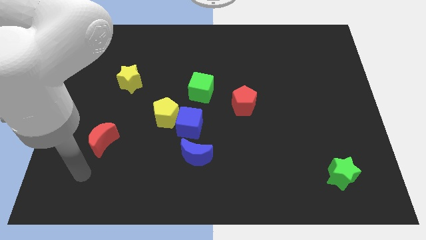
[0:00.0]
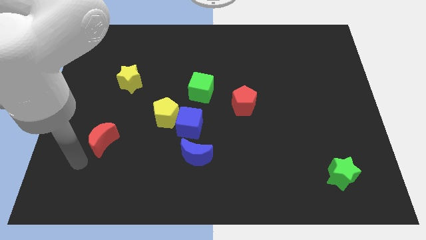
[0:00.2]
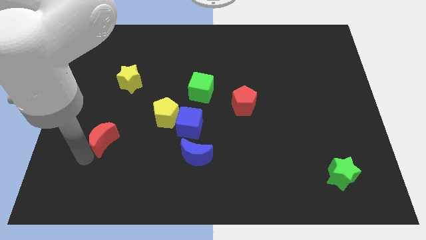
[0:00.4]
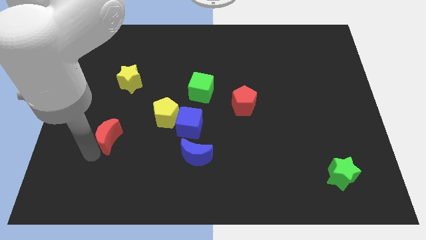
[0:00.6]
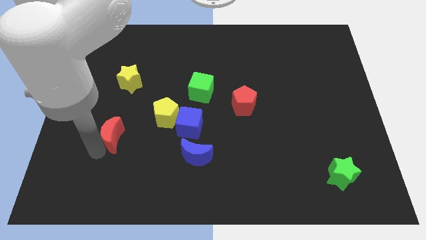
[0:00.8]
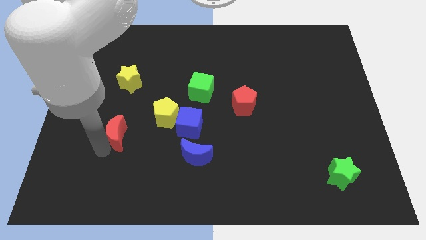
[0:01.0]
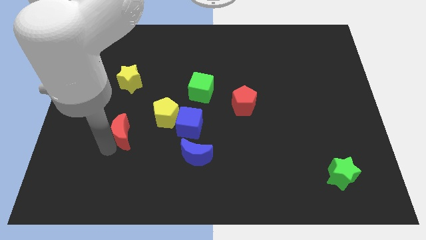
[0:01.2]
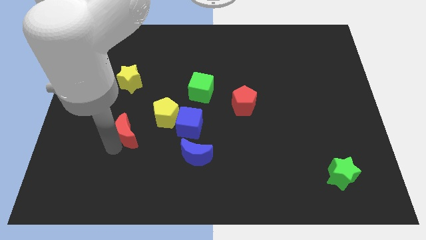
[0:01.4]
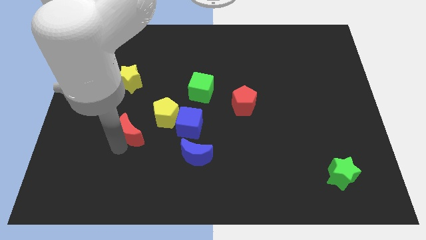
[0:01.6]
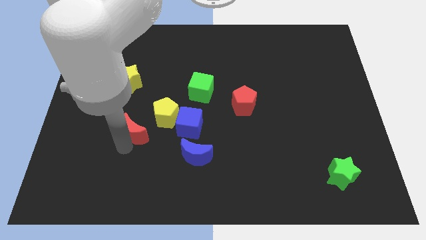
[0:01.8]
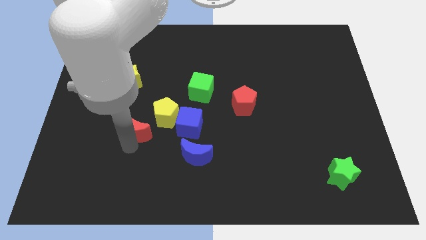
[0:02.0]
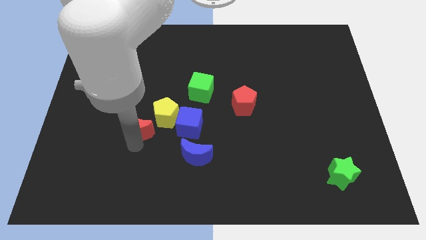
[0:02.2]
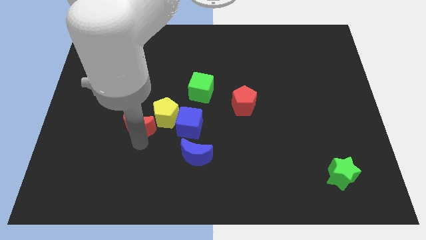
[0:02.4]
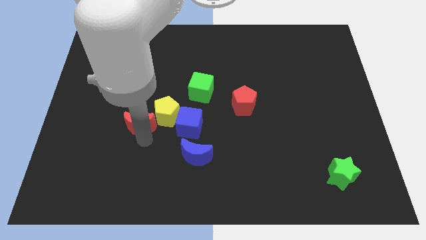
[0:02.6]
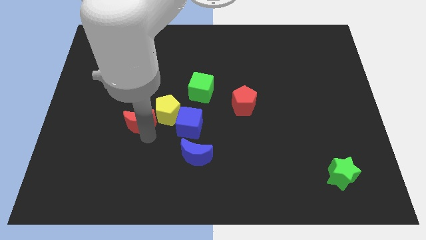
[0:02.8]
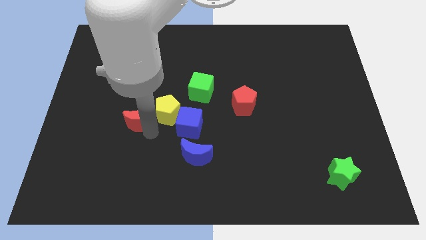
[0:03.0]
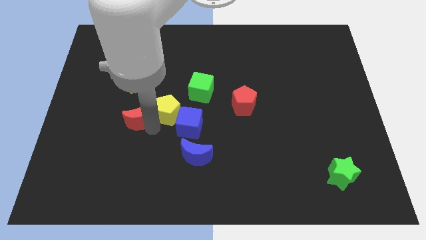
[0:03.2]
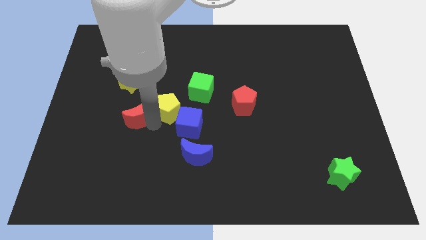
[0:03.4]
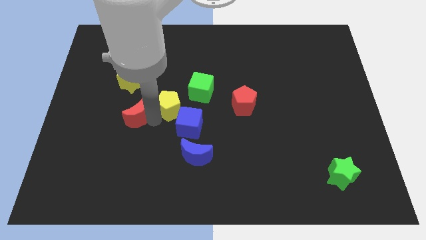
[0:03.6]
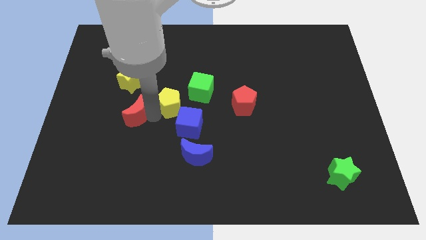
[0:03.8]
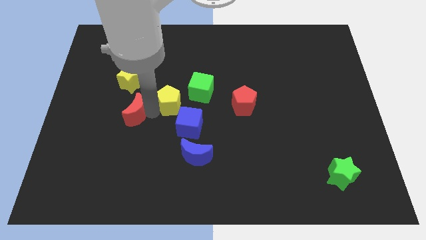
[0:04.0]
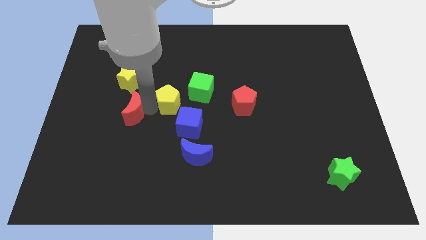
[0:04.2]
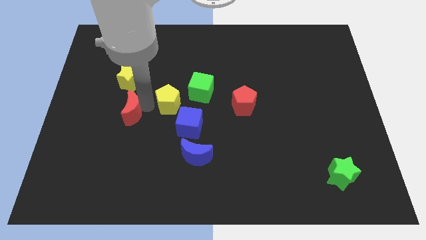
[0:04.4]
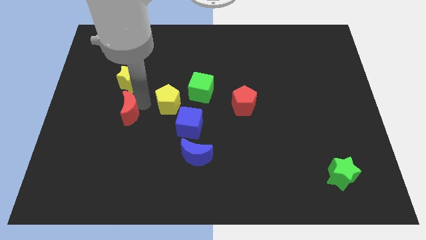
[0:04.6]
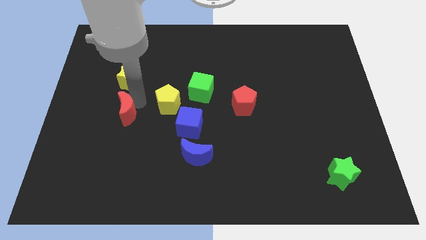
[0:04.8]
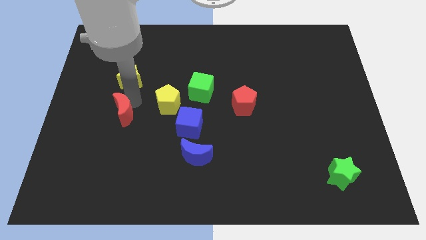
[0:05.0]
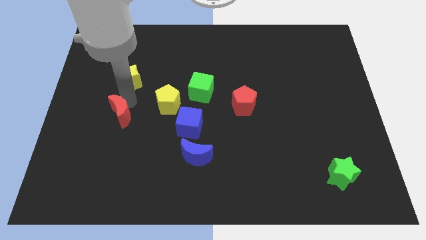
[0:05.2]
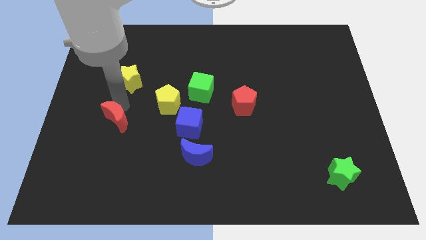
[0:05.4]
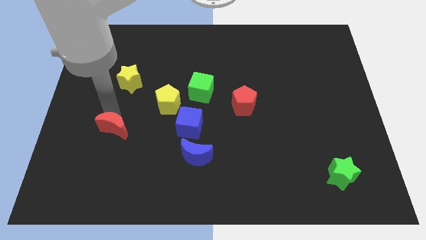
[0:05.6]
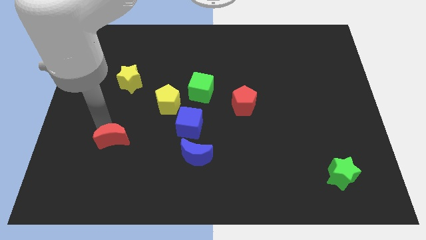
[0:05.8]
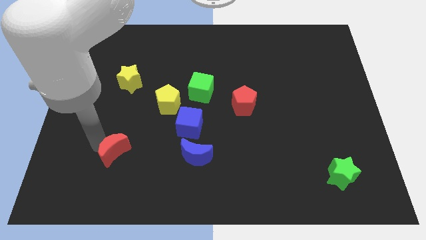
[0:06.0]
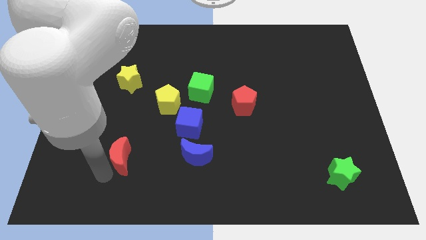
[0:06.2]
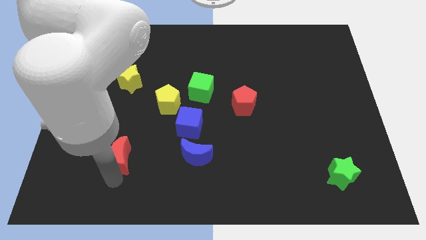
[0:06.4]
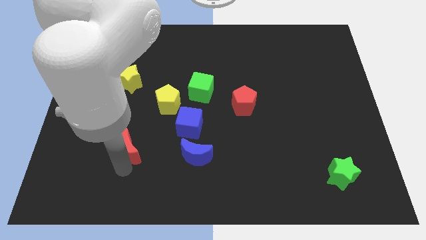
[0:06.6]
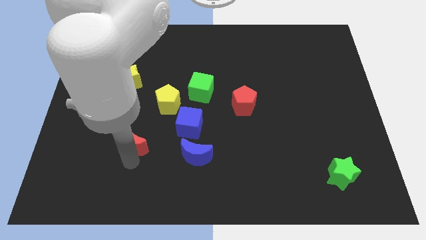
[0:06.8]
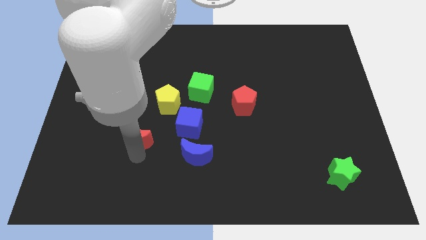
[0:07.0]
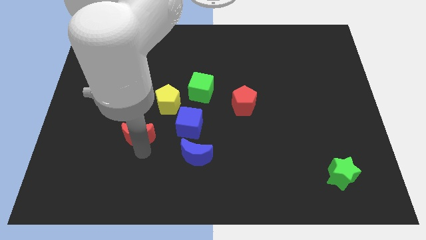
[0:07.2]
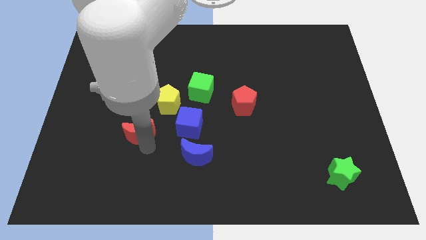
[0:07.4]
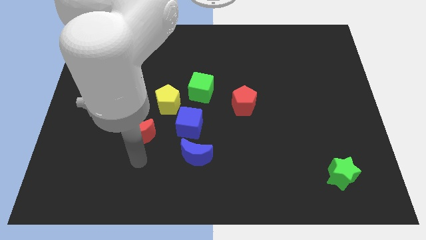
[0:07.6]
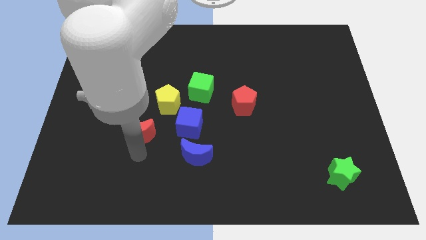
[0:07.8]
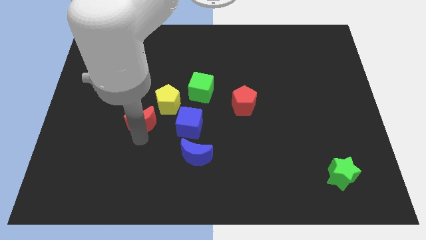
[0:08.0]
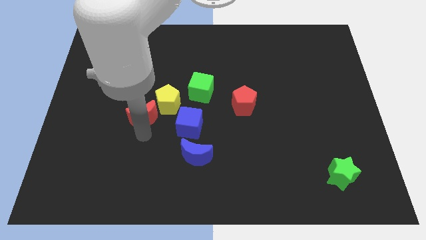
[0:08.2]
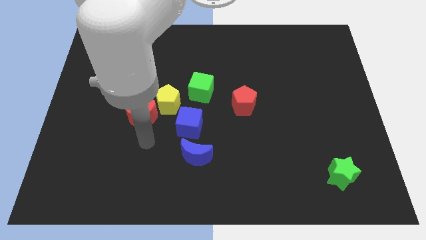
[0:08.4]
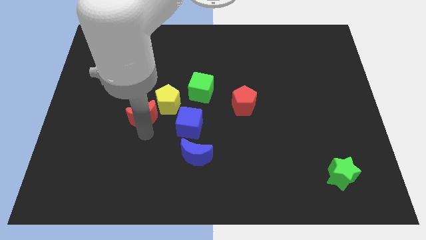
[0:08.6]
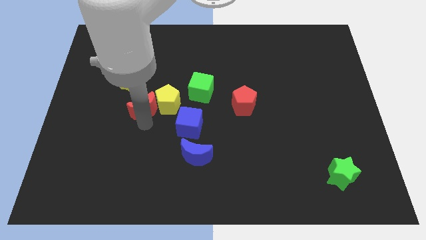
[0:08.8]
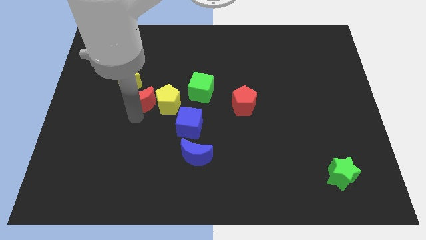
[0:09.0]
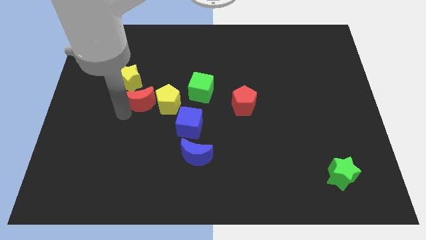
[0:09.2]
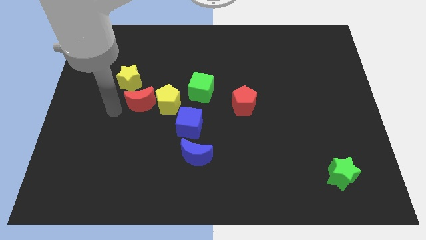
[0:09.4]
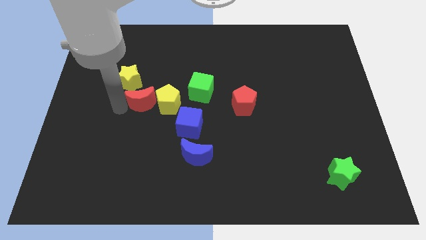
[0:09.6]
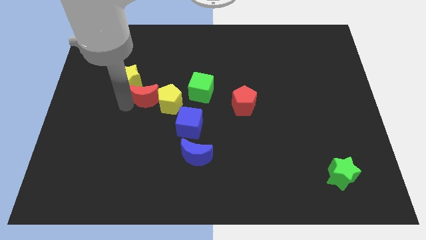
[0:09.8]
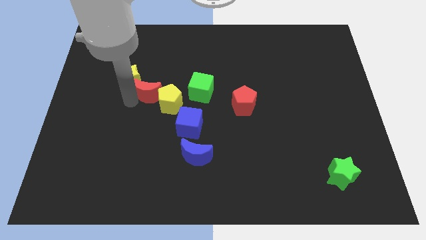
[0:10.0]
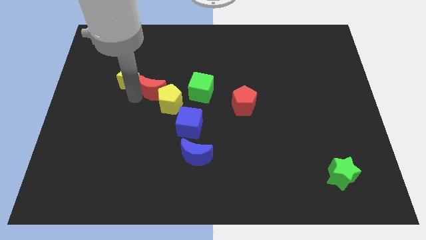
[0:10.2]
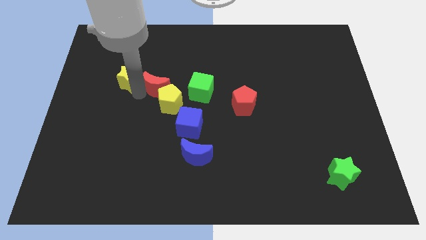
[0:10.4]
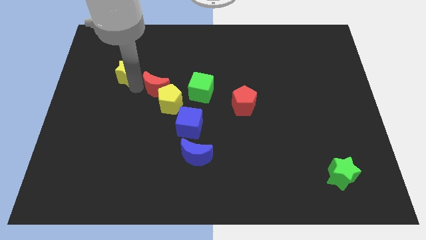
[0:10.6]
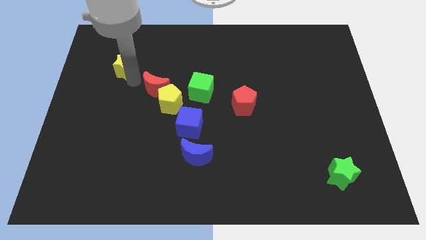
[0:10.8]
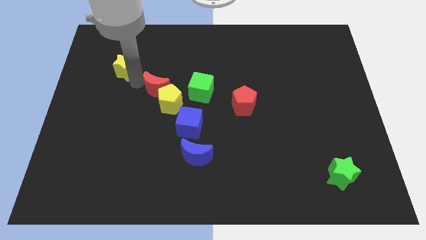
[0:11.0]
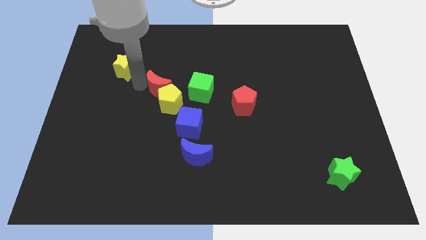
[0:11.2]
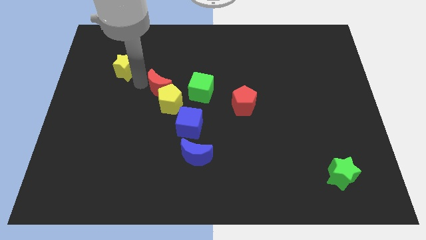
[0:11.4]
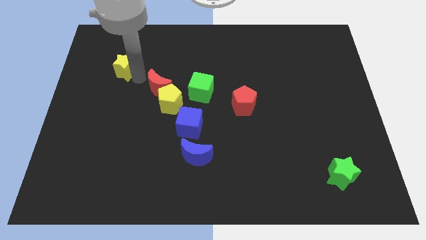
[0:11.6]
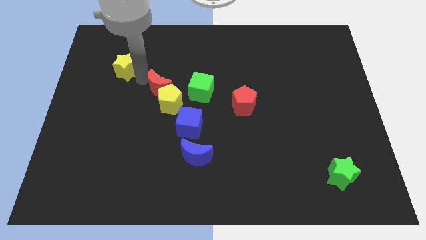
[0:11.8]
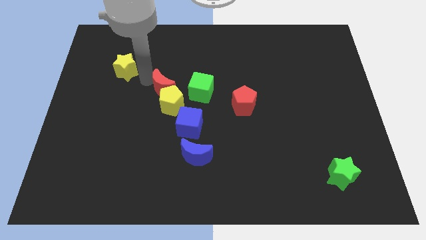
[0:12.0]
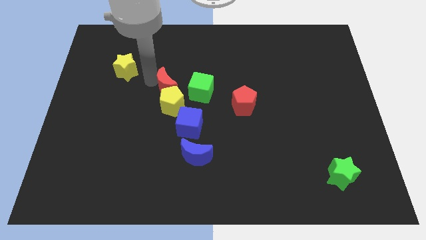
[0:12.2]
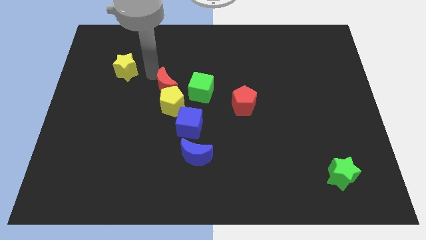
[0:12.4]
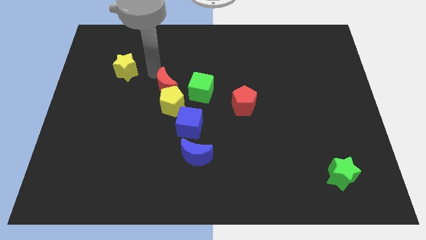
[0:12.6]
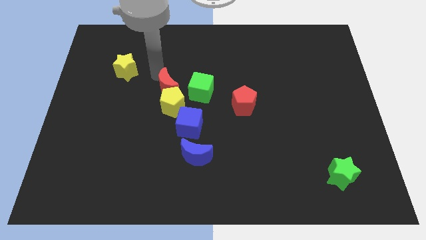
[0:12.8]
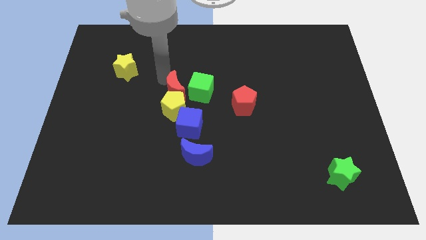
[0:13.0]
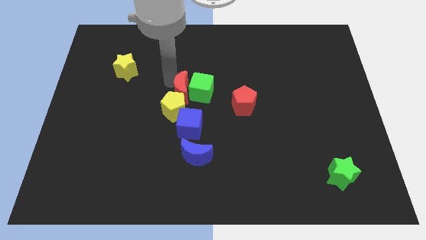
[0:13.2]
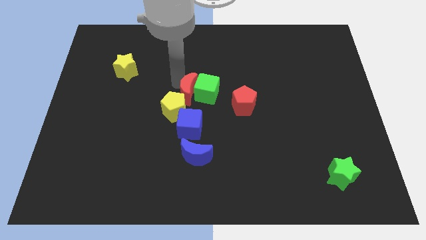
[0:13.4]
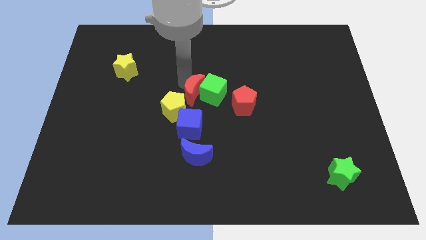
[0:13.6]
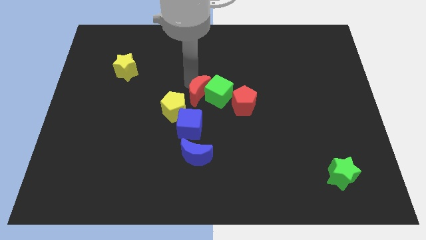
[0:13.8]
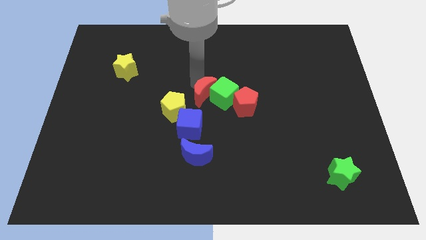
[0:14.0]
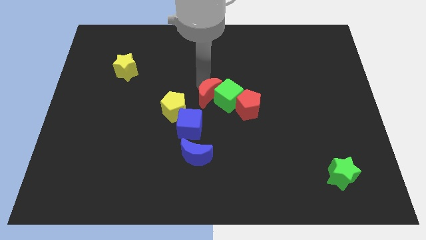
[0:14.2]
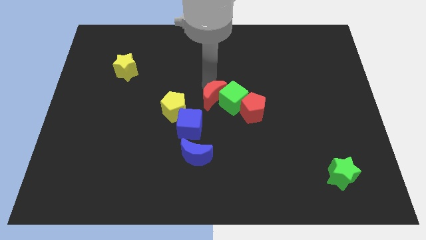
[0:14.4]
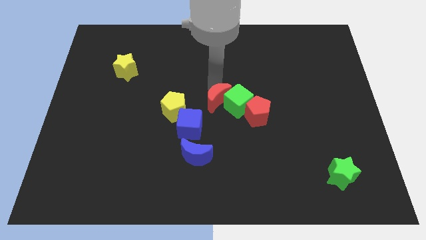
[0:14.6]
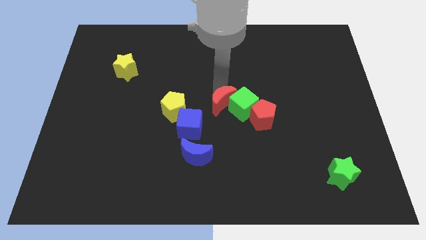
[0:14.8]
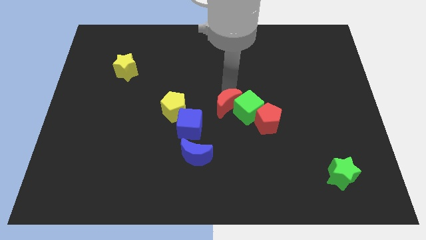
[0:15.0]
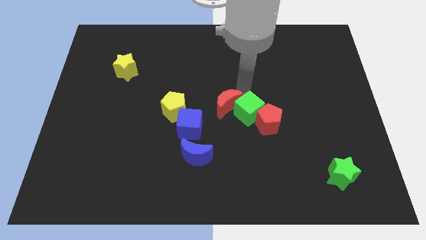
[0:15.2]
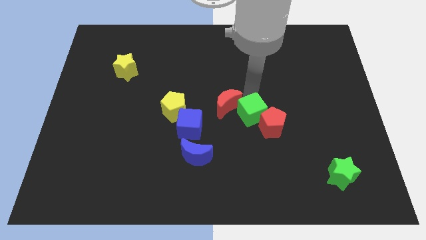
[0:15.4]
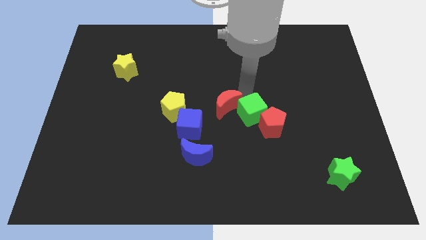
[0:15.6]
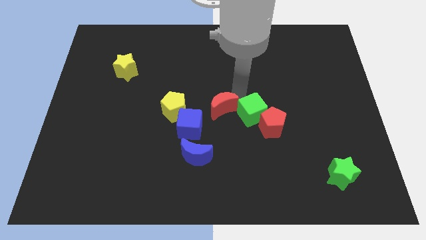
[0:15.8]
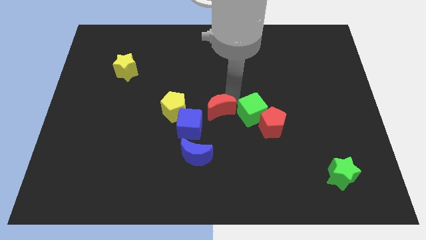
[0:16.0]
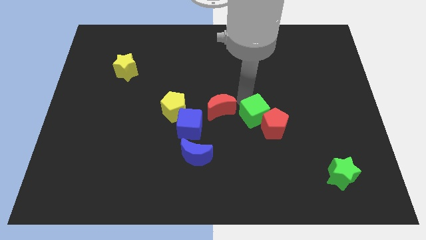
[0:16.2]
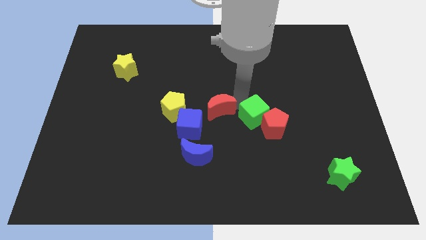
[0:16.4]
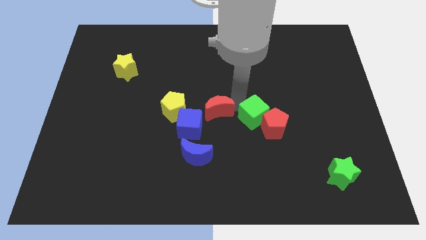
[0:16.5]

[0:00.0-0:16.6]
slide the red moon to the top of the blue moon
